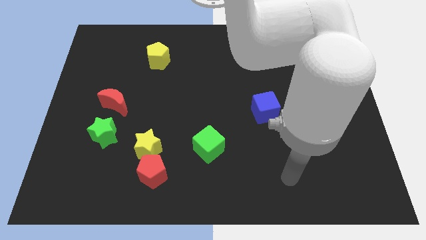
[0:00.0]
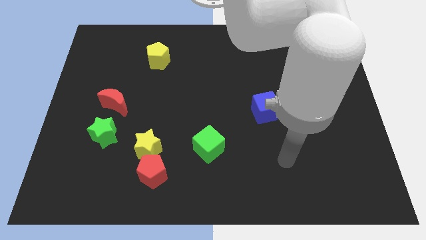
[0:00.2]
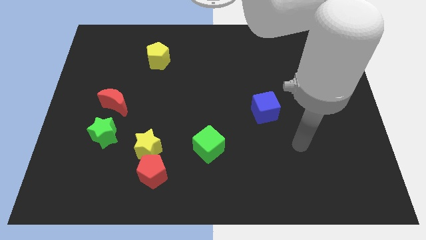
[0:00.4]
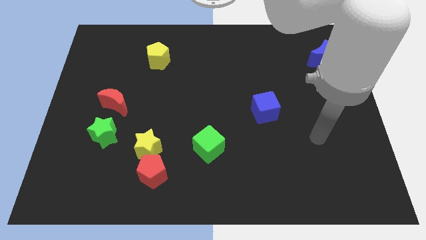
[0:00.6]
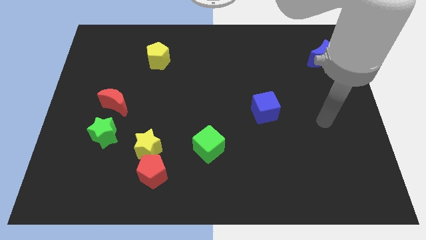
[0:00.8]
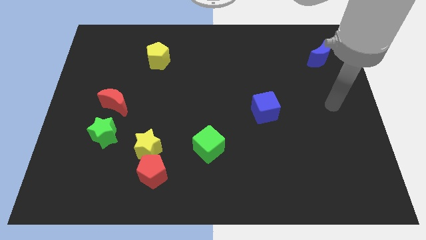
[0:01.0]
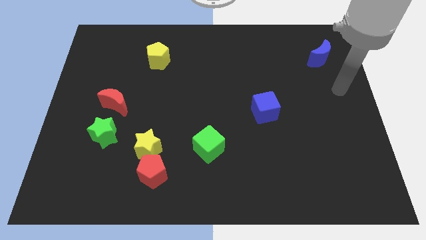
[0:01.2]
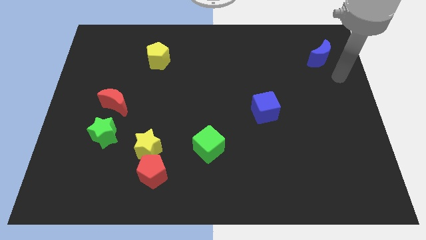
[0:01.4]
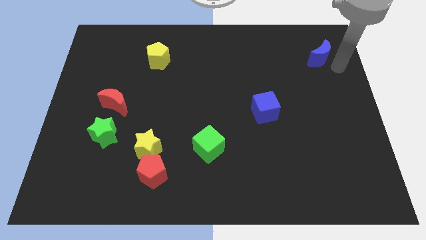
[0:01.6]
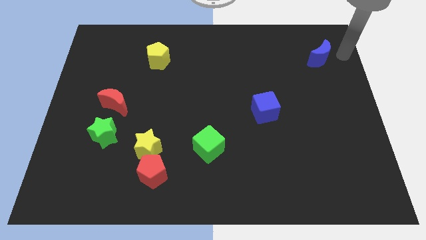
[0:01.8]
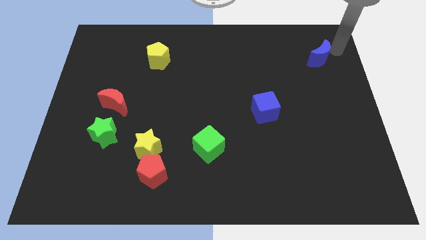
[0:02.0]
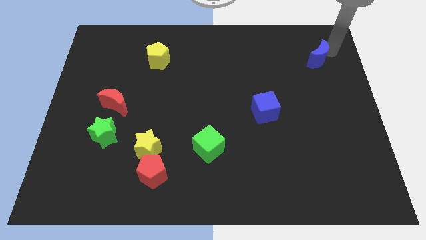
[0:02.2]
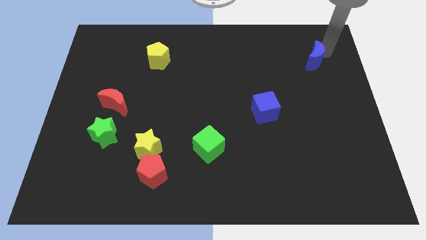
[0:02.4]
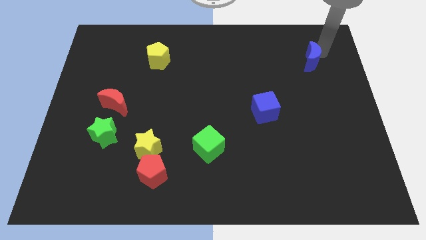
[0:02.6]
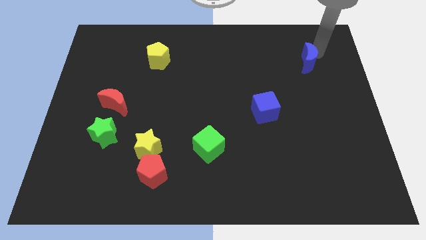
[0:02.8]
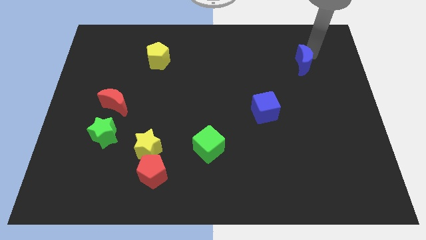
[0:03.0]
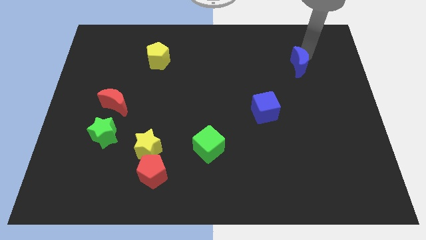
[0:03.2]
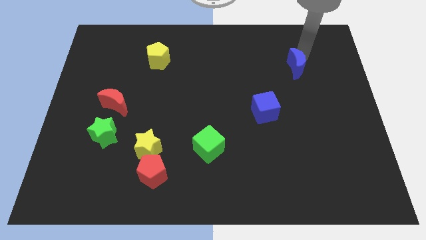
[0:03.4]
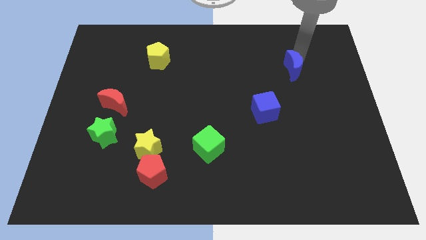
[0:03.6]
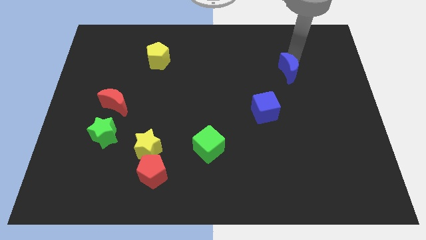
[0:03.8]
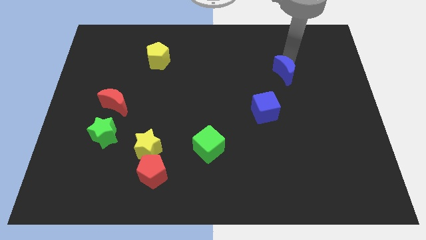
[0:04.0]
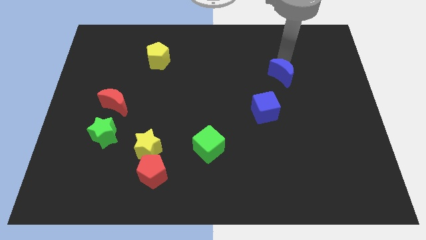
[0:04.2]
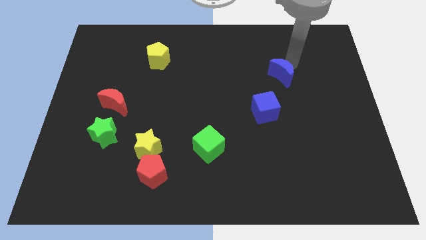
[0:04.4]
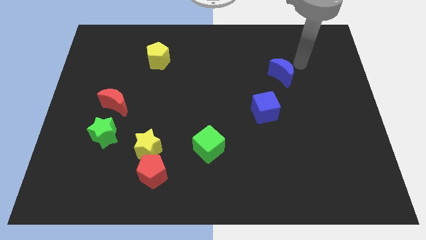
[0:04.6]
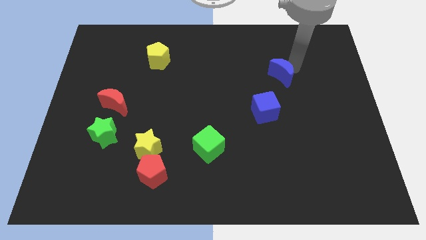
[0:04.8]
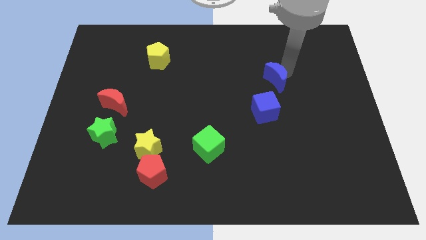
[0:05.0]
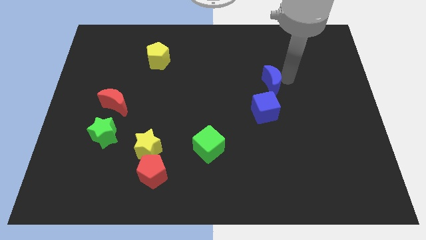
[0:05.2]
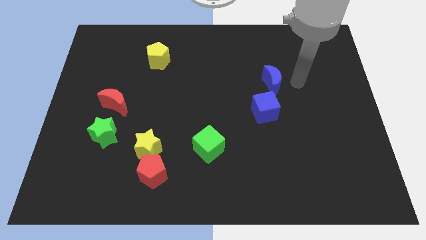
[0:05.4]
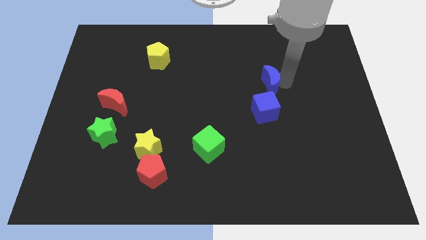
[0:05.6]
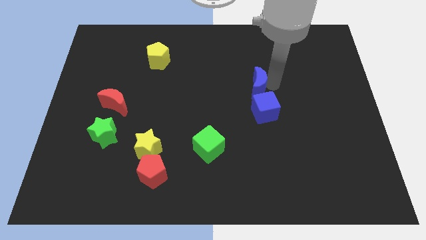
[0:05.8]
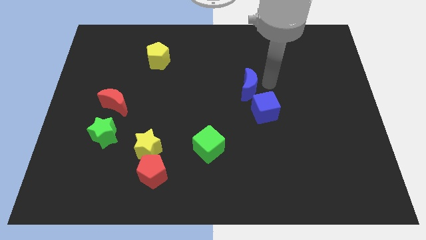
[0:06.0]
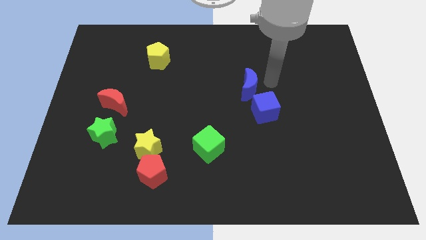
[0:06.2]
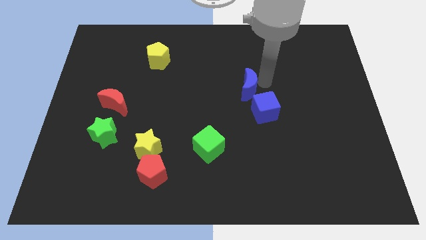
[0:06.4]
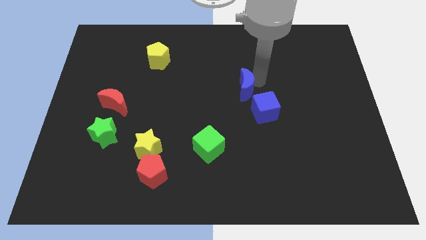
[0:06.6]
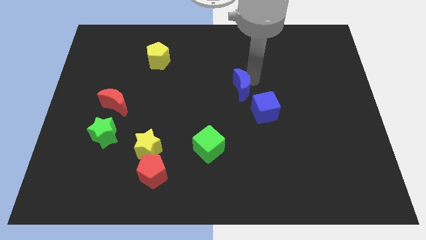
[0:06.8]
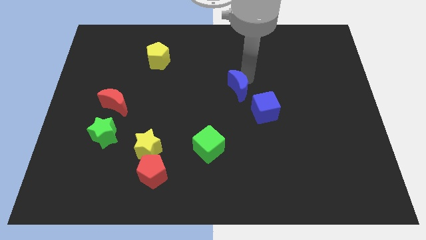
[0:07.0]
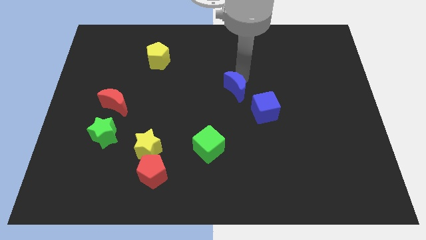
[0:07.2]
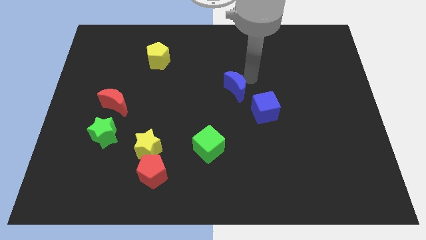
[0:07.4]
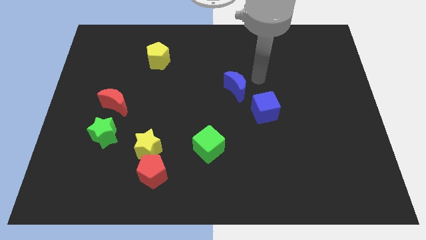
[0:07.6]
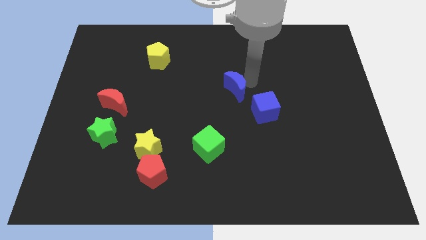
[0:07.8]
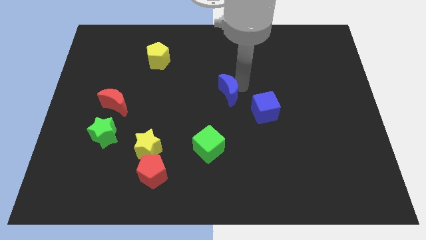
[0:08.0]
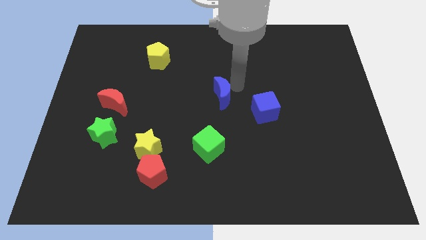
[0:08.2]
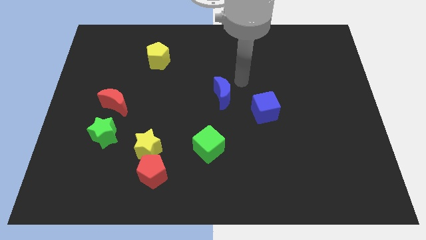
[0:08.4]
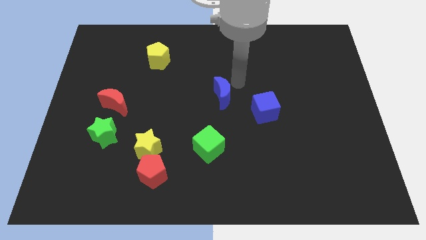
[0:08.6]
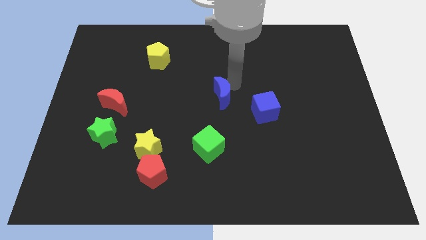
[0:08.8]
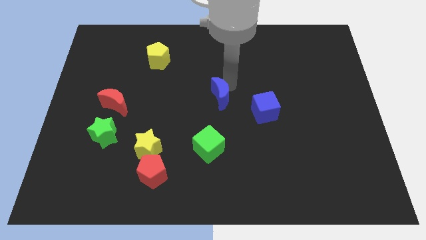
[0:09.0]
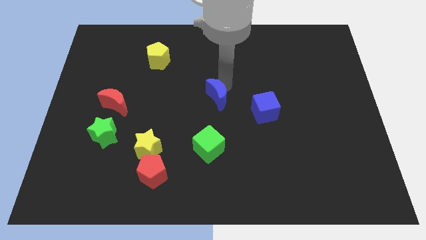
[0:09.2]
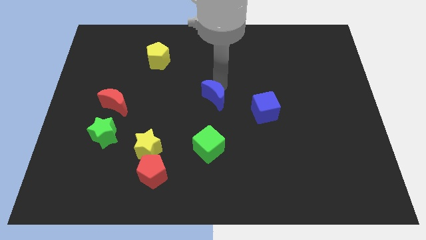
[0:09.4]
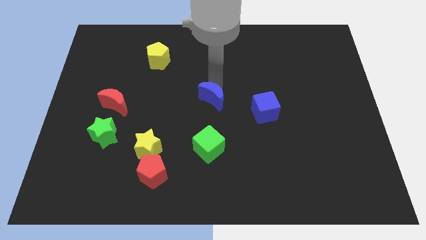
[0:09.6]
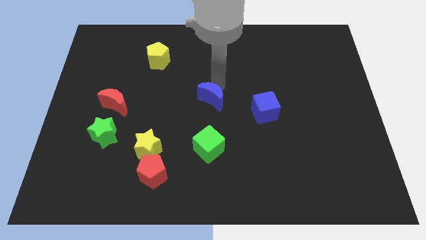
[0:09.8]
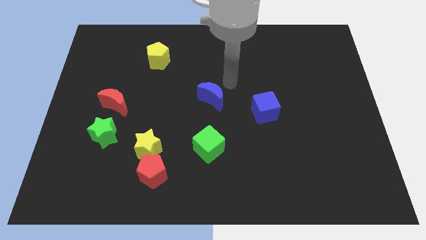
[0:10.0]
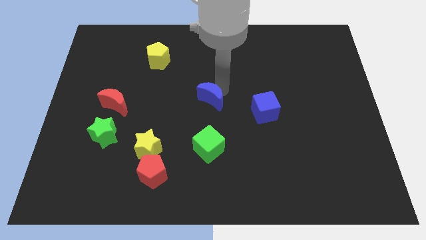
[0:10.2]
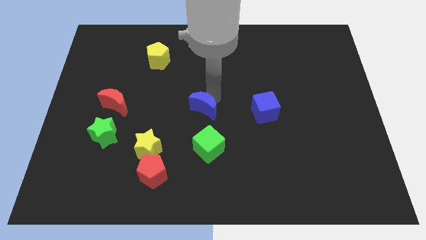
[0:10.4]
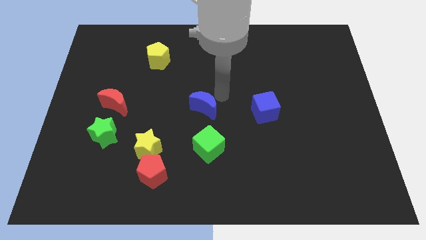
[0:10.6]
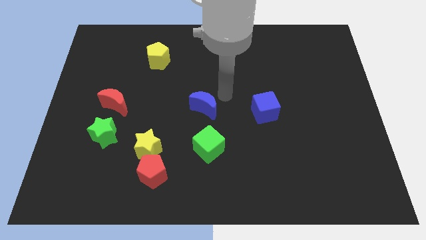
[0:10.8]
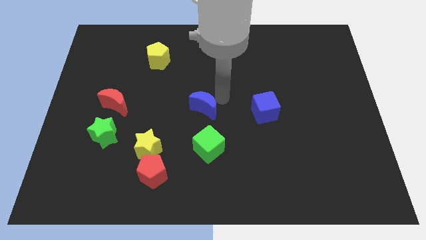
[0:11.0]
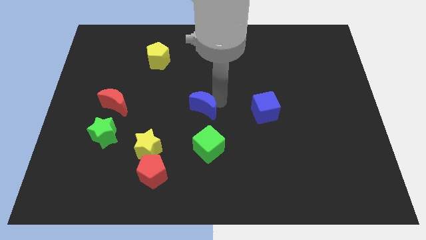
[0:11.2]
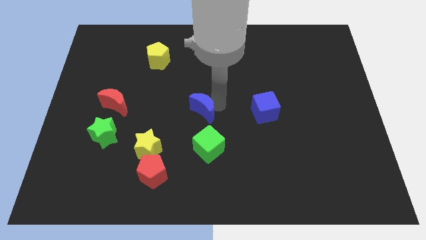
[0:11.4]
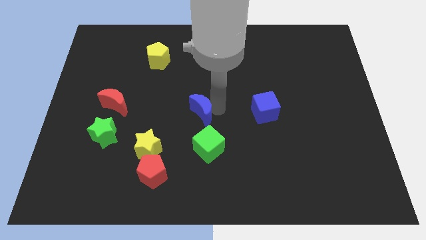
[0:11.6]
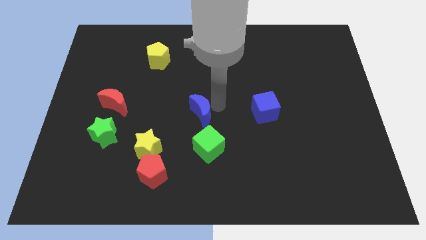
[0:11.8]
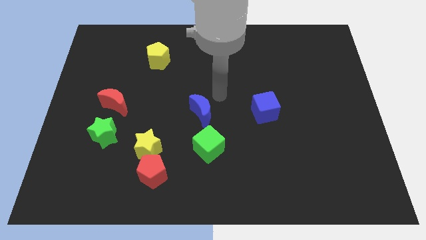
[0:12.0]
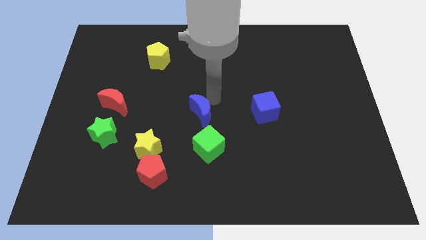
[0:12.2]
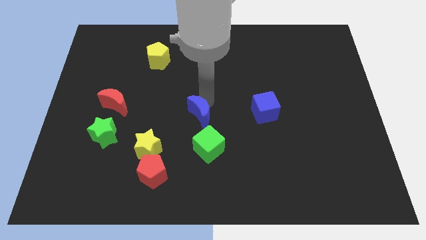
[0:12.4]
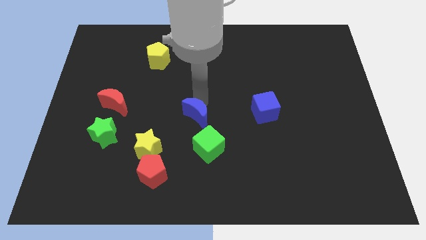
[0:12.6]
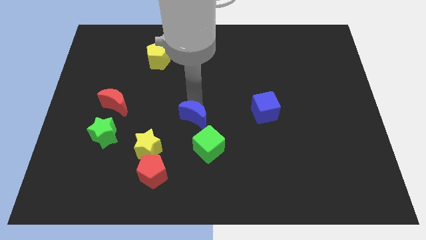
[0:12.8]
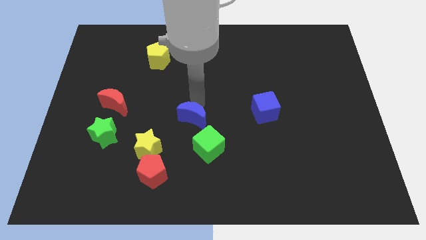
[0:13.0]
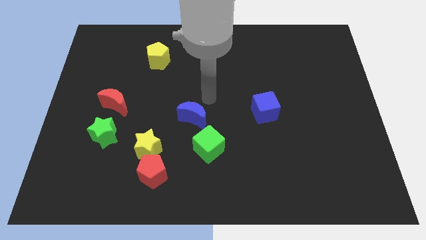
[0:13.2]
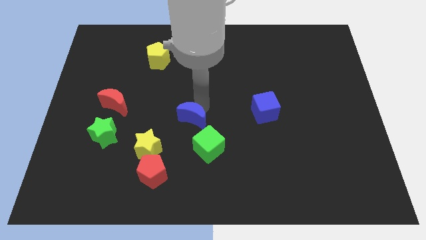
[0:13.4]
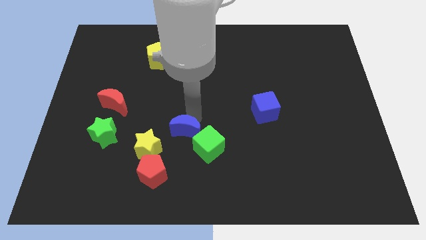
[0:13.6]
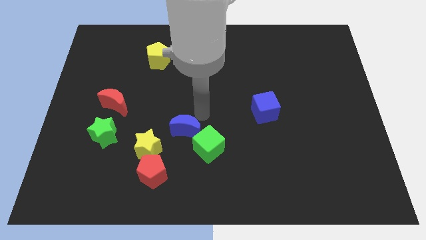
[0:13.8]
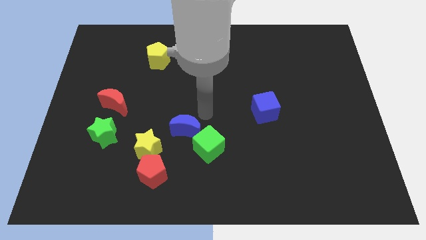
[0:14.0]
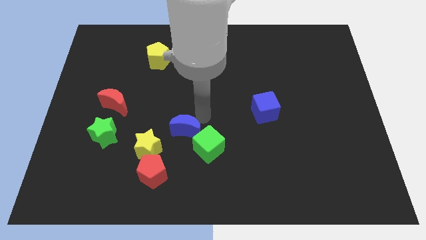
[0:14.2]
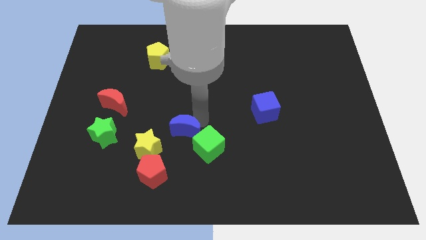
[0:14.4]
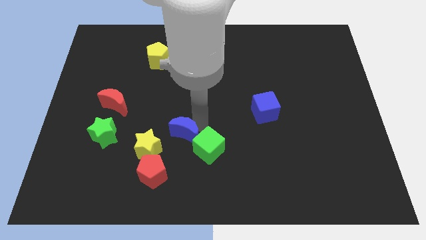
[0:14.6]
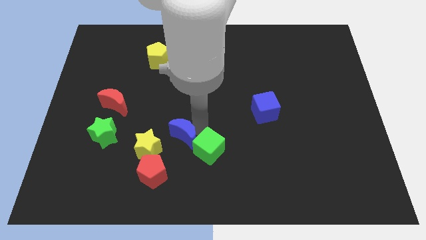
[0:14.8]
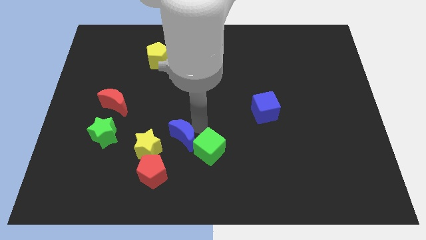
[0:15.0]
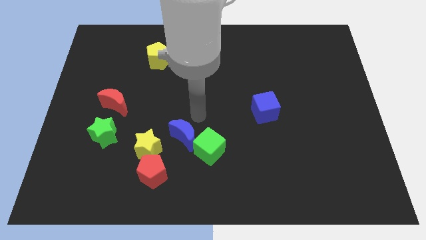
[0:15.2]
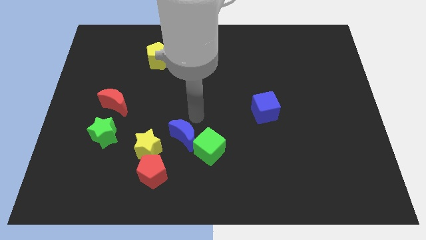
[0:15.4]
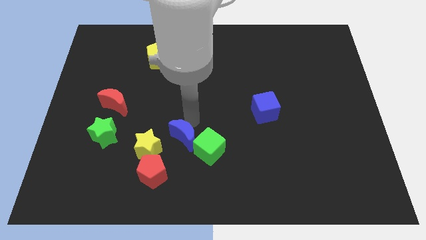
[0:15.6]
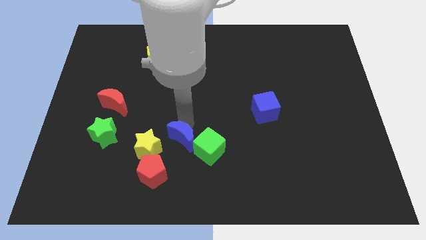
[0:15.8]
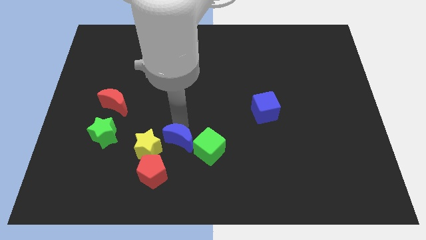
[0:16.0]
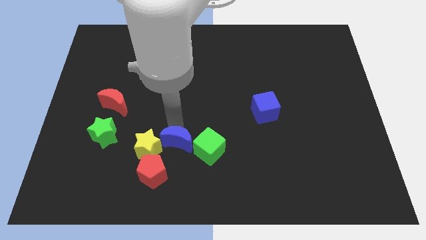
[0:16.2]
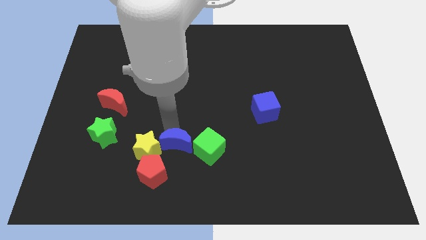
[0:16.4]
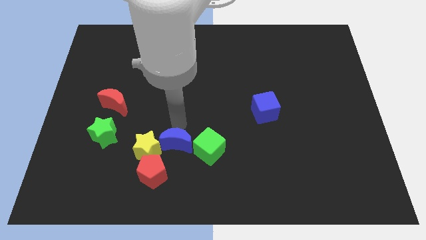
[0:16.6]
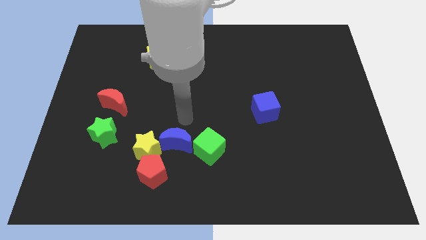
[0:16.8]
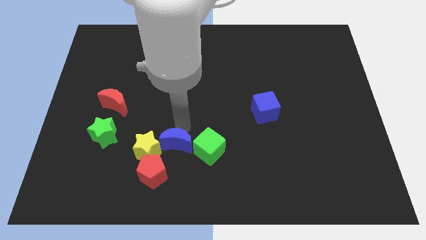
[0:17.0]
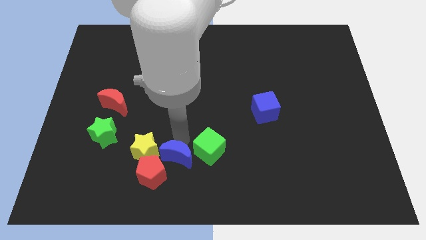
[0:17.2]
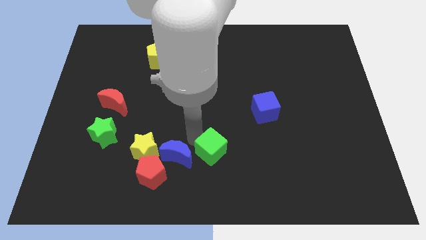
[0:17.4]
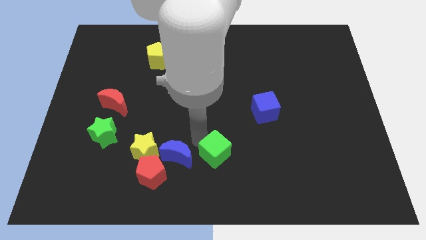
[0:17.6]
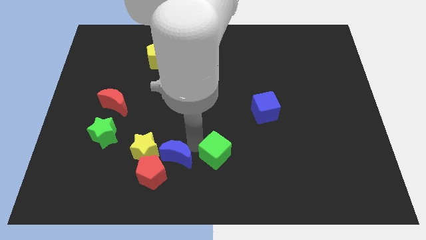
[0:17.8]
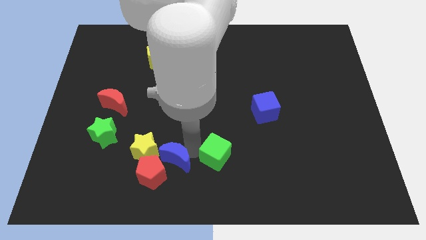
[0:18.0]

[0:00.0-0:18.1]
move the blue moon to the red pentagon
